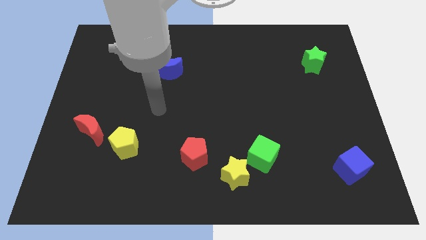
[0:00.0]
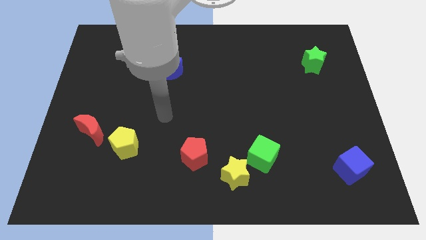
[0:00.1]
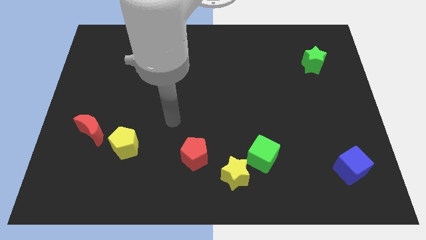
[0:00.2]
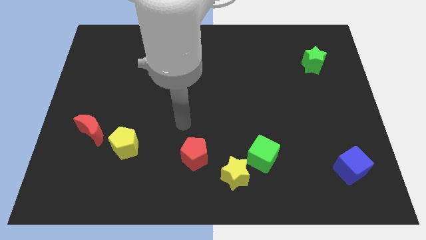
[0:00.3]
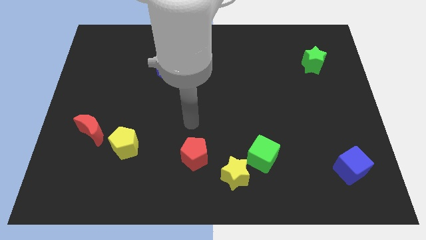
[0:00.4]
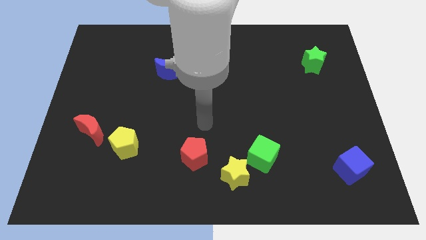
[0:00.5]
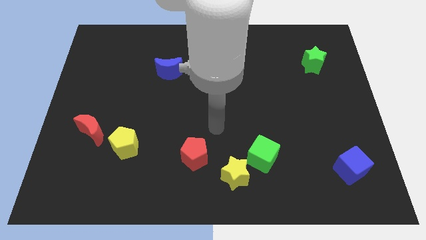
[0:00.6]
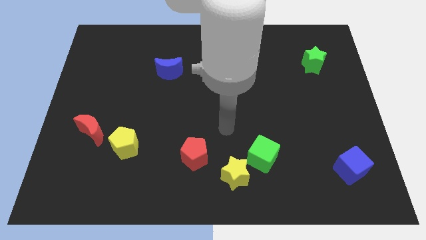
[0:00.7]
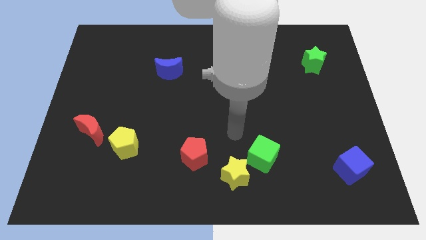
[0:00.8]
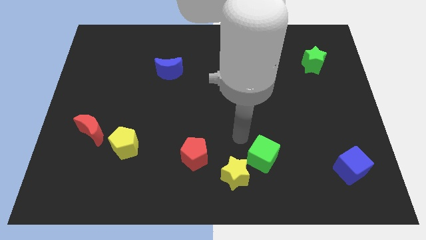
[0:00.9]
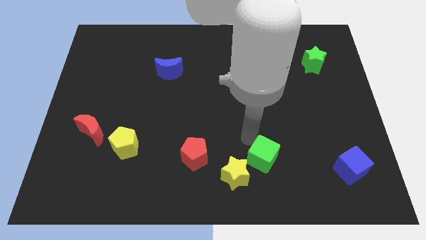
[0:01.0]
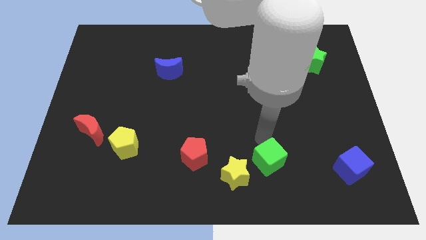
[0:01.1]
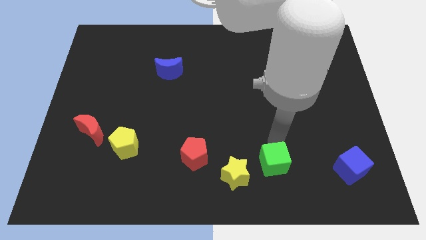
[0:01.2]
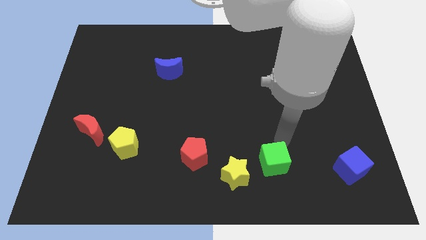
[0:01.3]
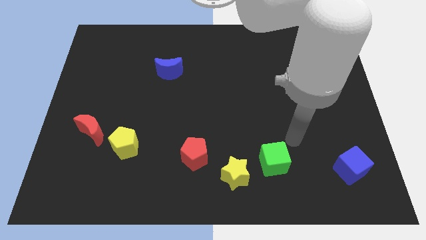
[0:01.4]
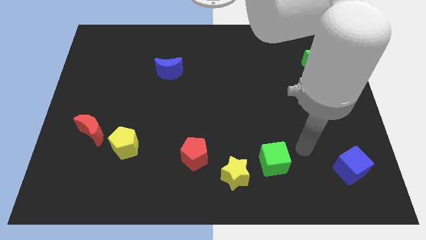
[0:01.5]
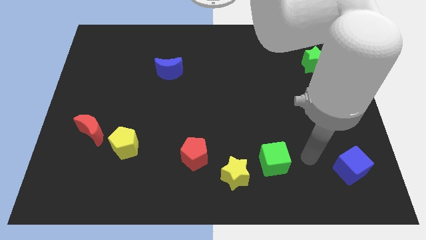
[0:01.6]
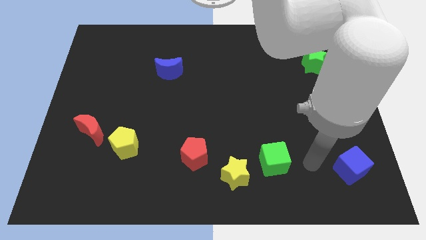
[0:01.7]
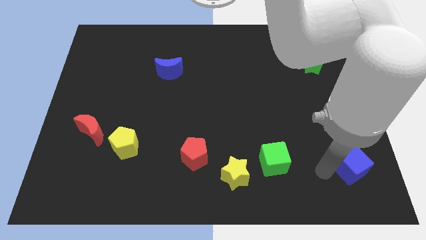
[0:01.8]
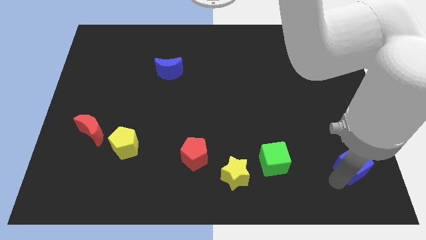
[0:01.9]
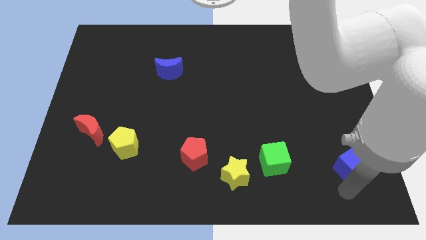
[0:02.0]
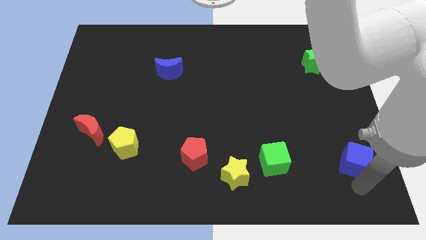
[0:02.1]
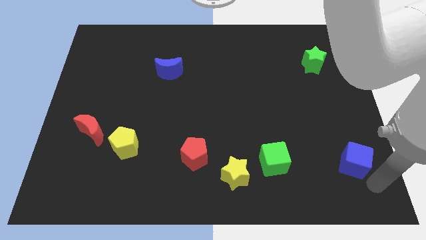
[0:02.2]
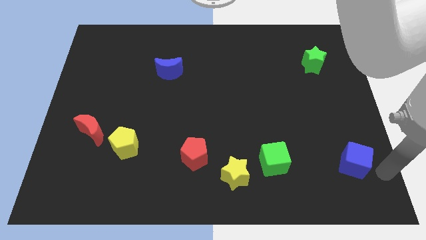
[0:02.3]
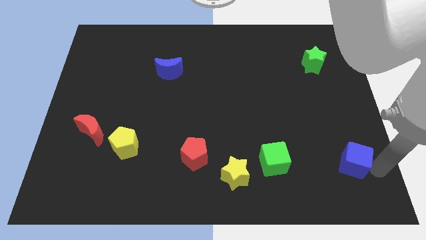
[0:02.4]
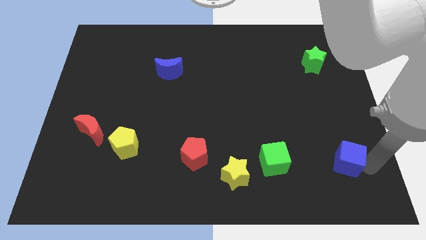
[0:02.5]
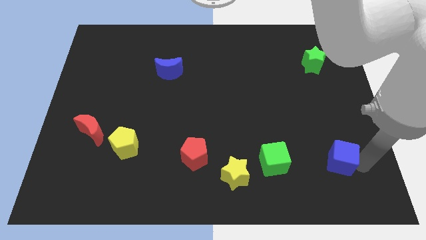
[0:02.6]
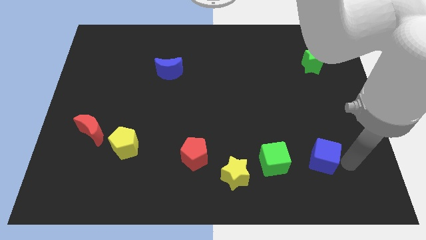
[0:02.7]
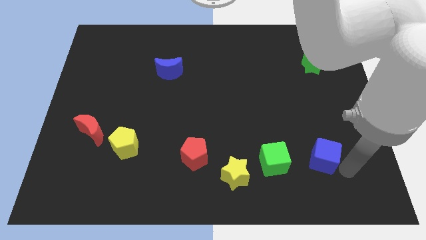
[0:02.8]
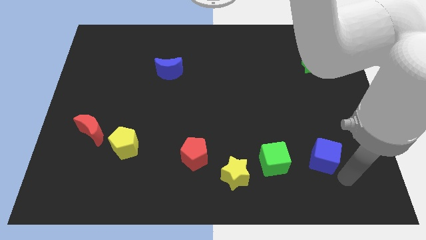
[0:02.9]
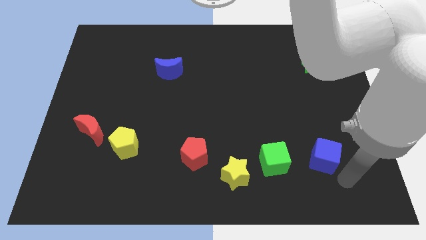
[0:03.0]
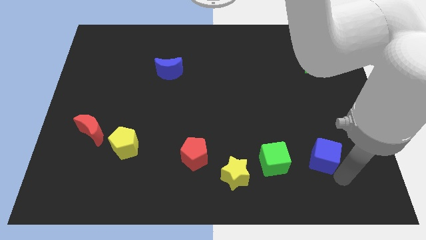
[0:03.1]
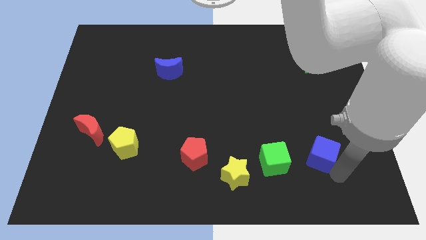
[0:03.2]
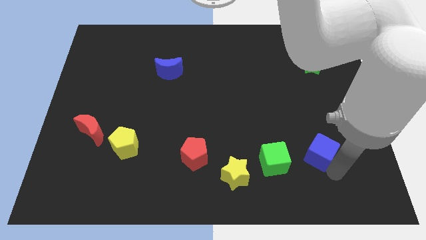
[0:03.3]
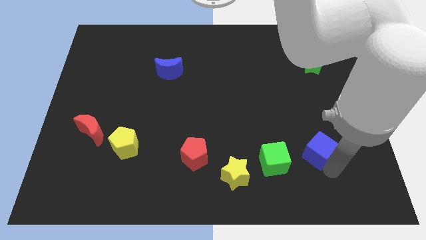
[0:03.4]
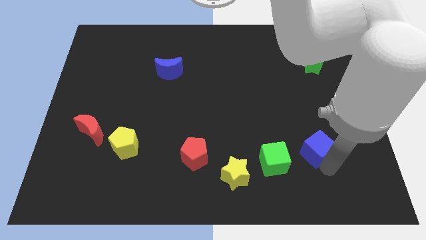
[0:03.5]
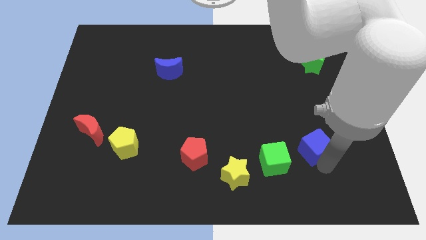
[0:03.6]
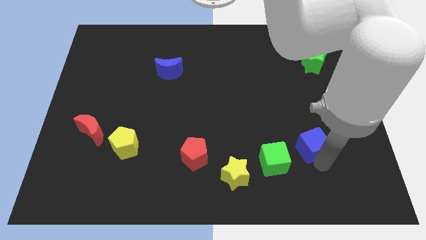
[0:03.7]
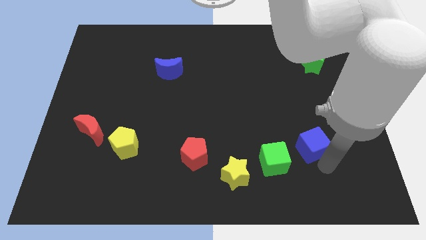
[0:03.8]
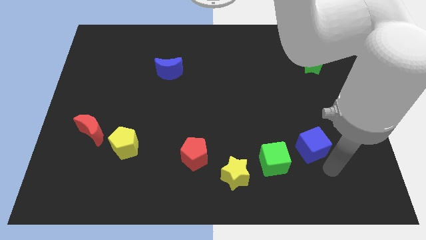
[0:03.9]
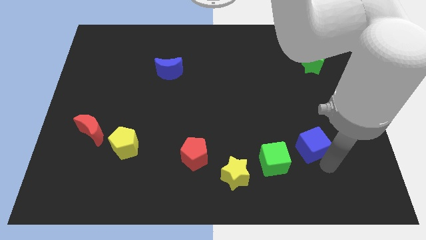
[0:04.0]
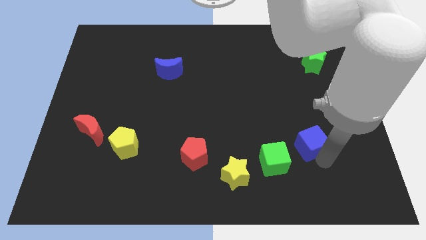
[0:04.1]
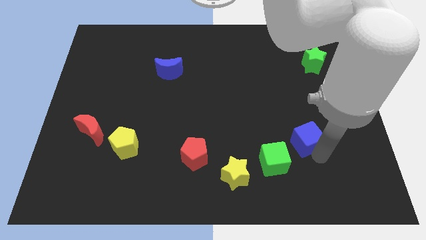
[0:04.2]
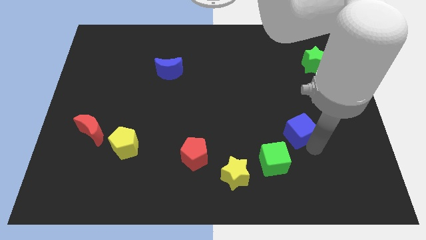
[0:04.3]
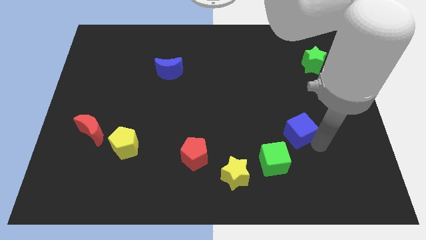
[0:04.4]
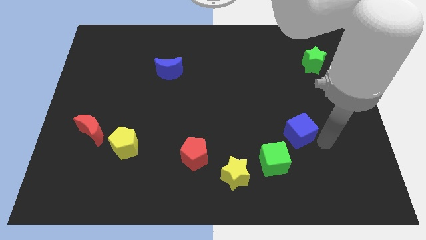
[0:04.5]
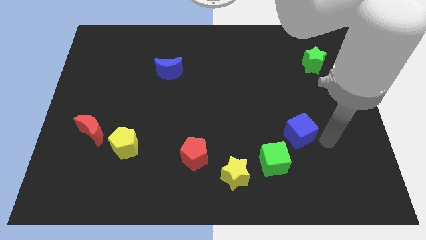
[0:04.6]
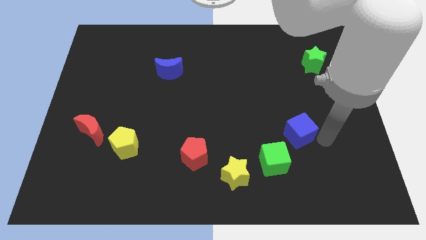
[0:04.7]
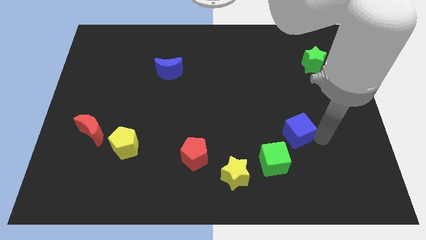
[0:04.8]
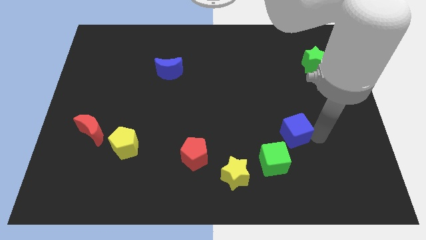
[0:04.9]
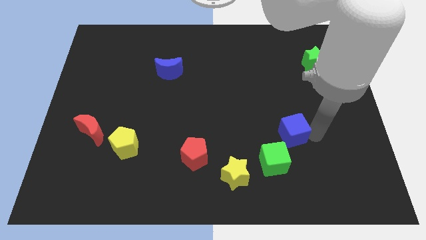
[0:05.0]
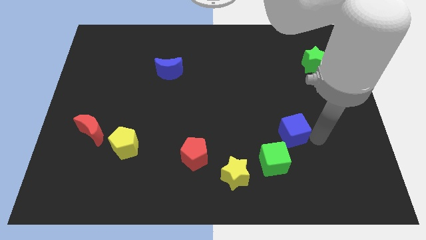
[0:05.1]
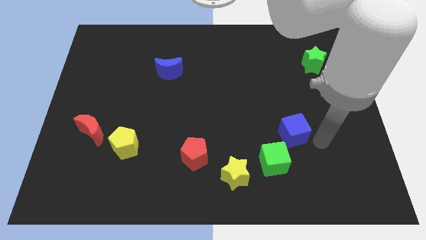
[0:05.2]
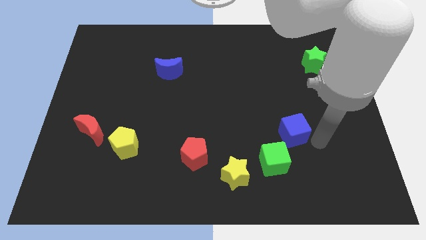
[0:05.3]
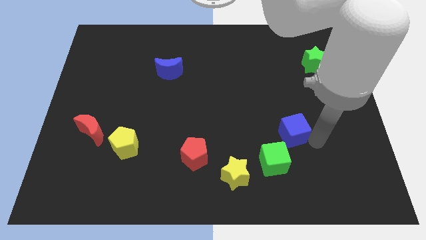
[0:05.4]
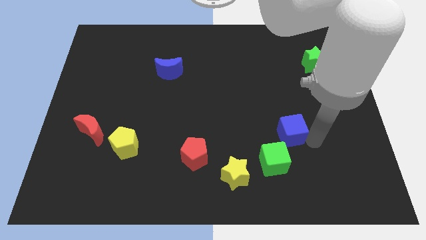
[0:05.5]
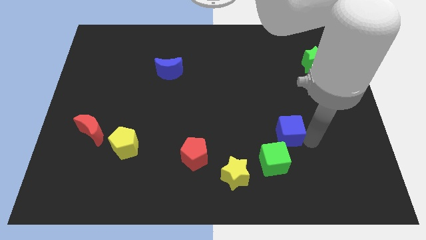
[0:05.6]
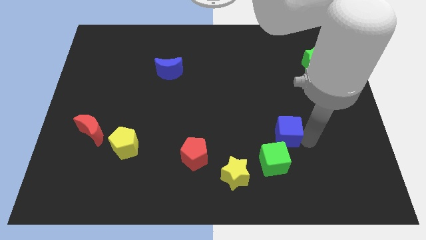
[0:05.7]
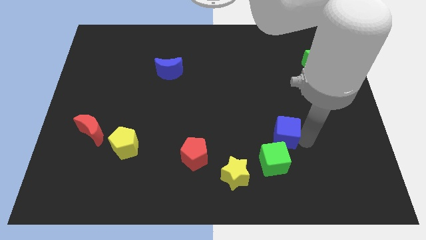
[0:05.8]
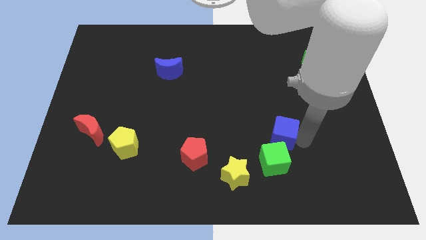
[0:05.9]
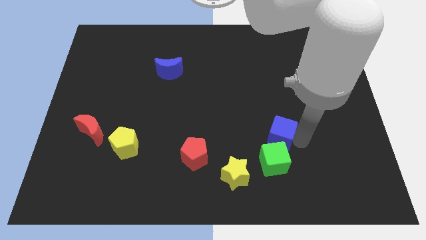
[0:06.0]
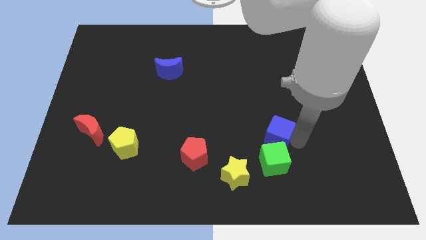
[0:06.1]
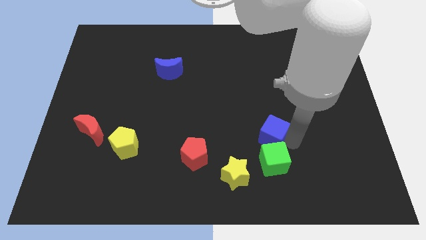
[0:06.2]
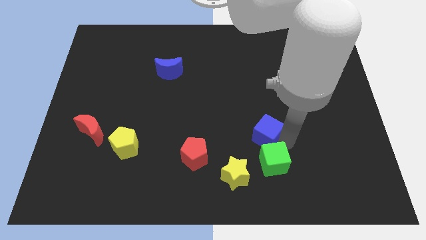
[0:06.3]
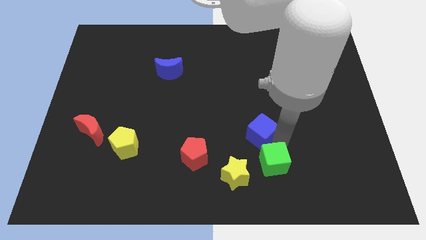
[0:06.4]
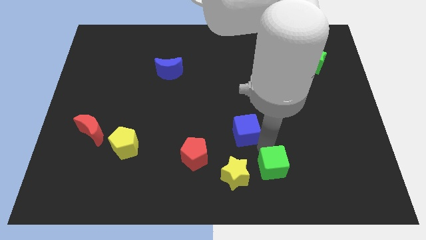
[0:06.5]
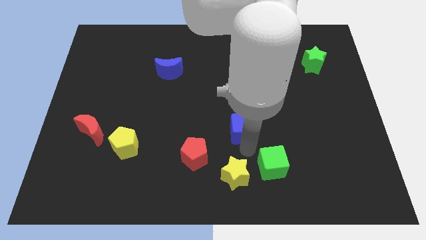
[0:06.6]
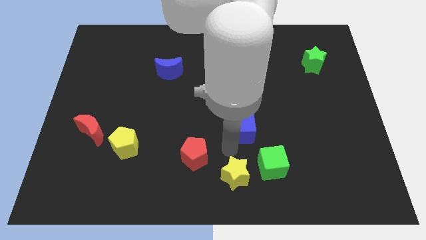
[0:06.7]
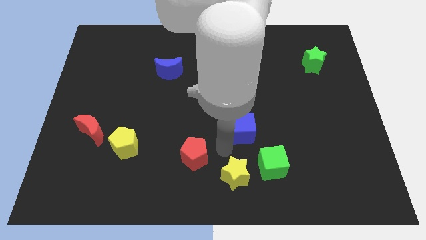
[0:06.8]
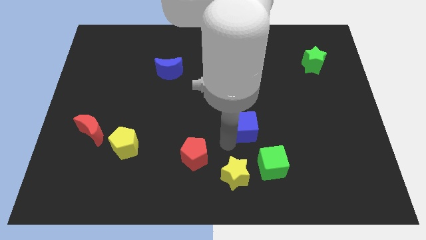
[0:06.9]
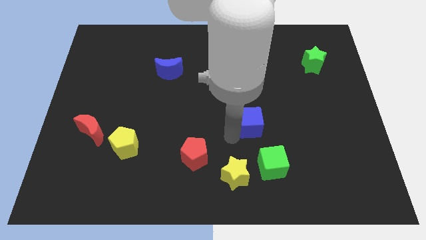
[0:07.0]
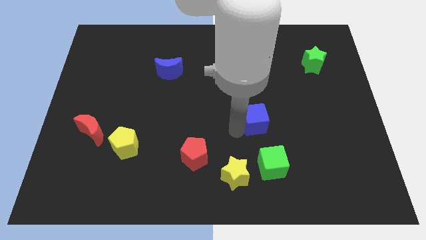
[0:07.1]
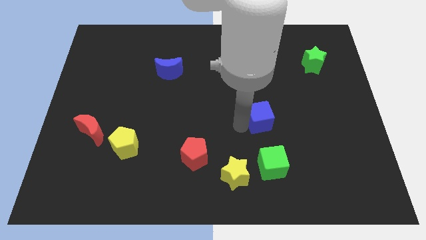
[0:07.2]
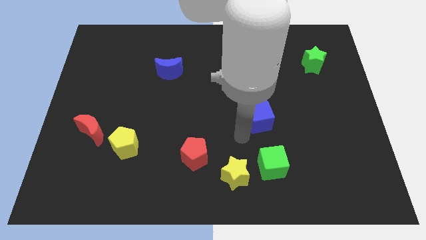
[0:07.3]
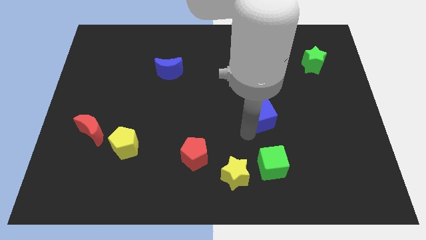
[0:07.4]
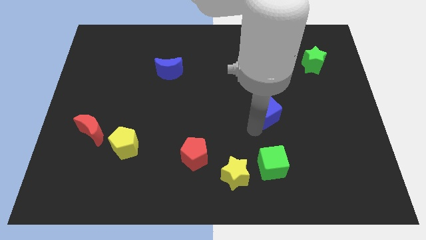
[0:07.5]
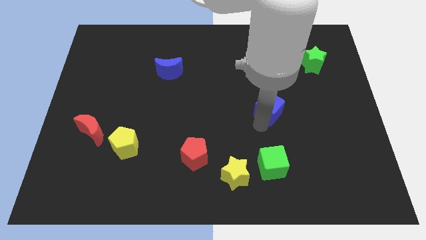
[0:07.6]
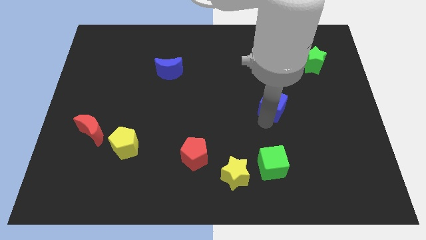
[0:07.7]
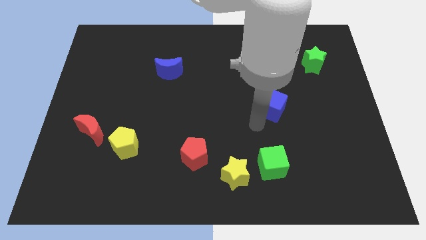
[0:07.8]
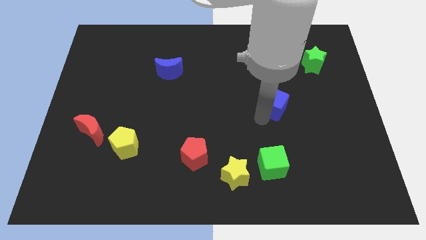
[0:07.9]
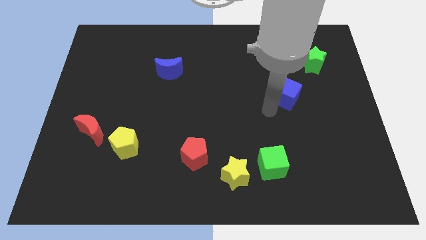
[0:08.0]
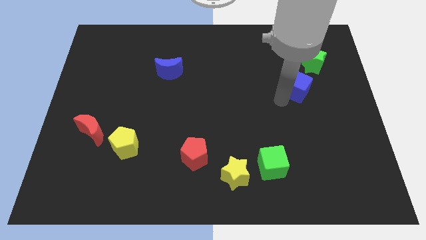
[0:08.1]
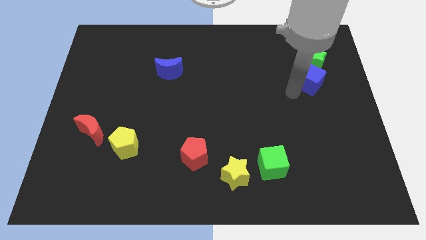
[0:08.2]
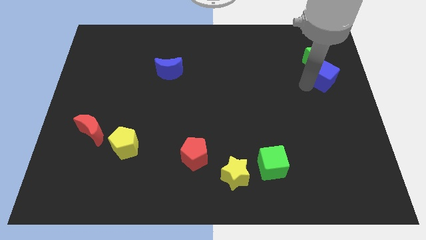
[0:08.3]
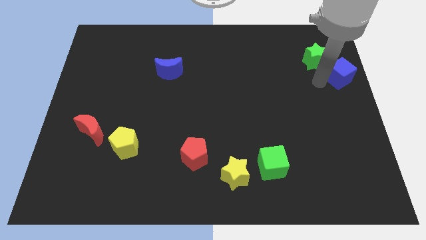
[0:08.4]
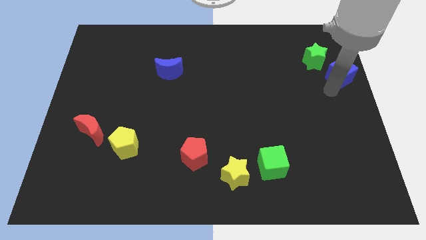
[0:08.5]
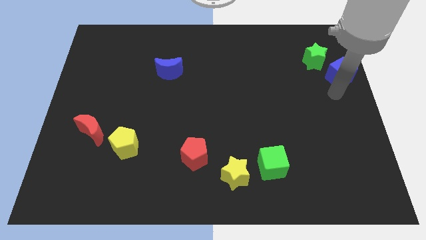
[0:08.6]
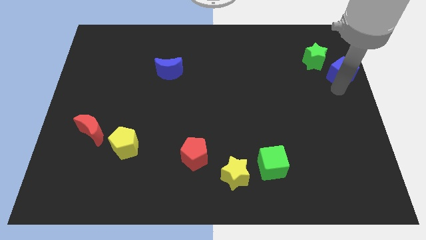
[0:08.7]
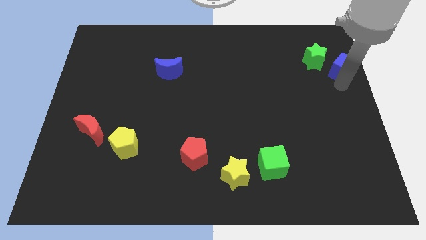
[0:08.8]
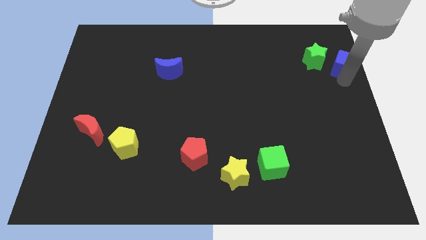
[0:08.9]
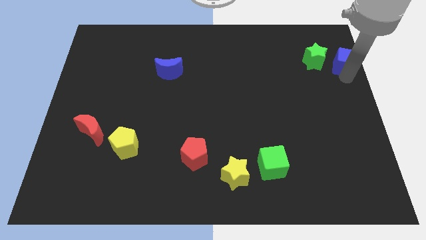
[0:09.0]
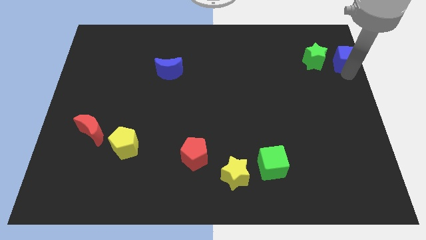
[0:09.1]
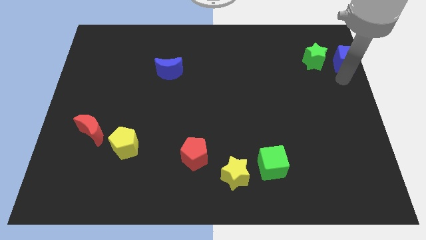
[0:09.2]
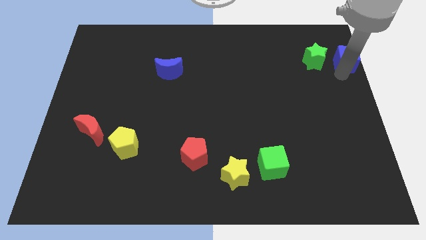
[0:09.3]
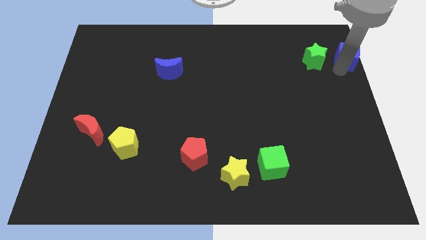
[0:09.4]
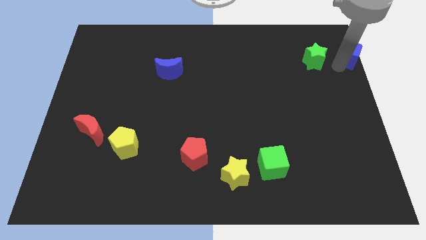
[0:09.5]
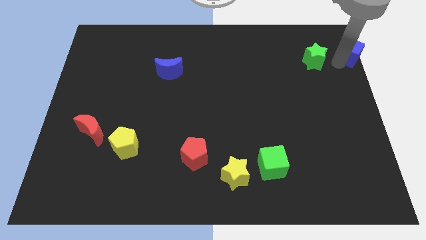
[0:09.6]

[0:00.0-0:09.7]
push the blue cube to the top right
